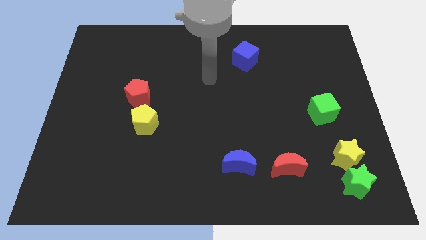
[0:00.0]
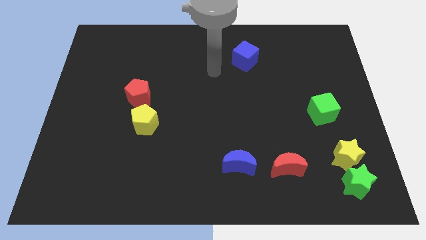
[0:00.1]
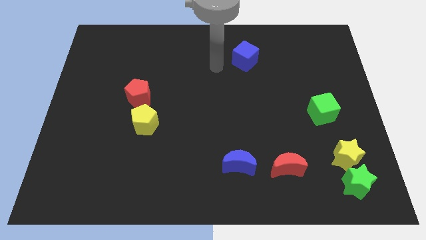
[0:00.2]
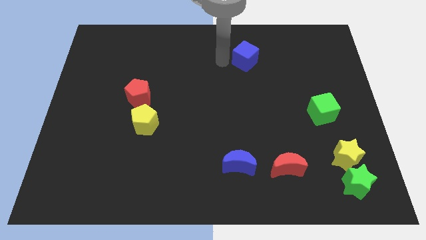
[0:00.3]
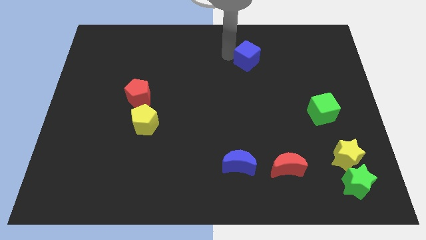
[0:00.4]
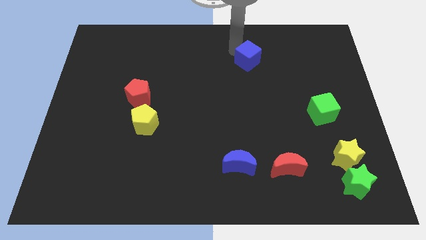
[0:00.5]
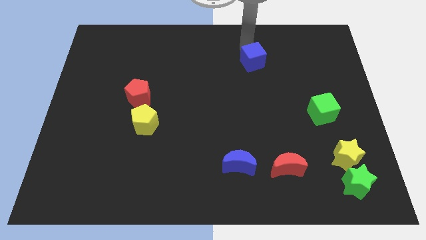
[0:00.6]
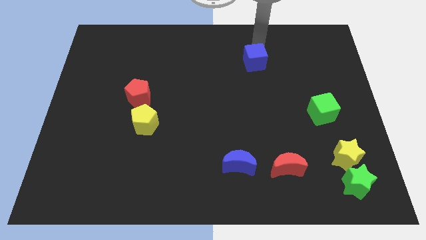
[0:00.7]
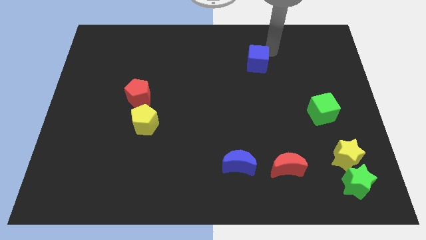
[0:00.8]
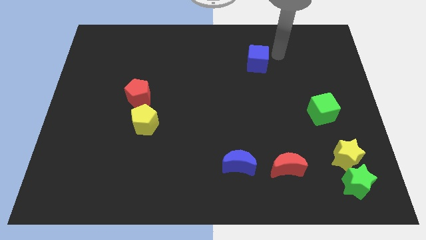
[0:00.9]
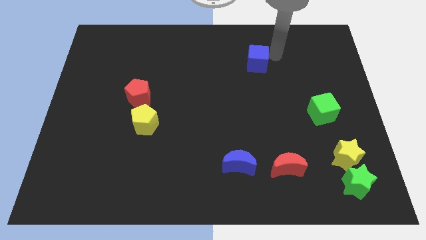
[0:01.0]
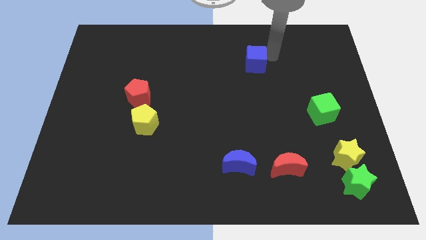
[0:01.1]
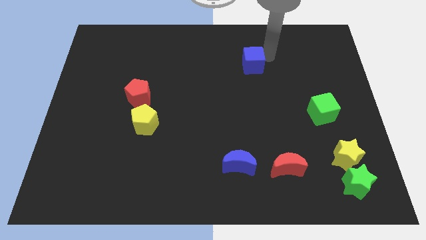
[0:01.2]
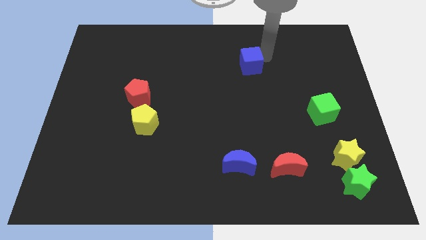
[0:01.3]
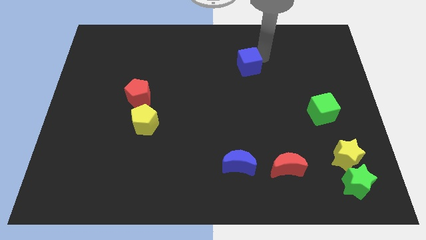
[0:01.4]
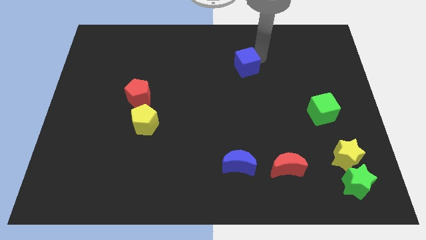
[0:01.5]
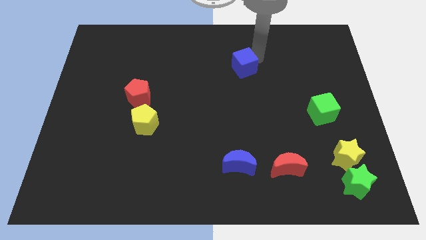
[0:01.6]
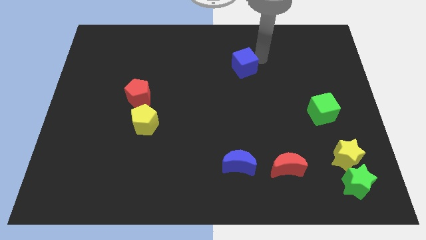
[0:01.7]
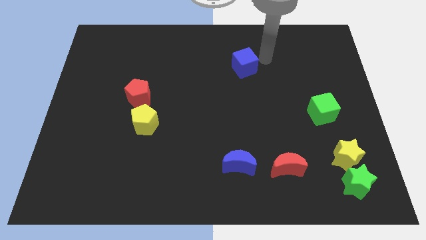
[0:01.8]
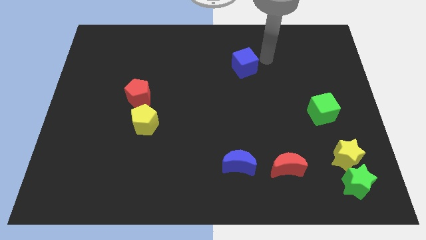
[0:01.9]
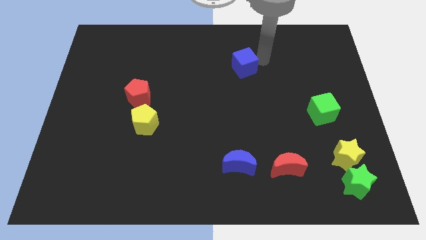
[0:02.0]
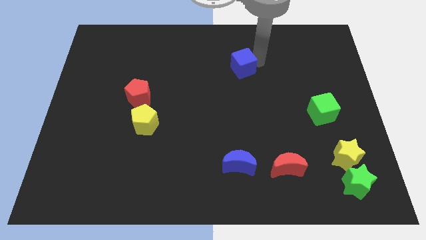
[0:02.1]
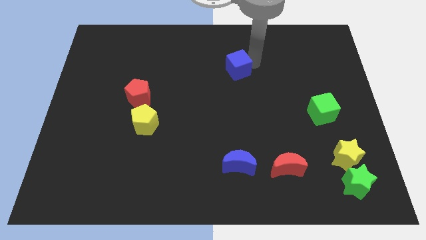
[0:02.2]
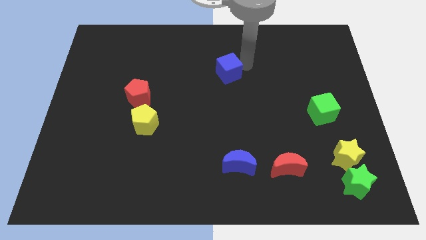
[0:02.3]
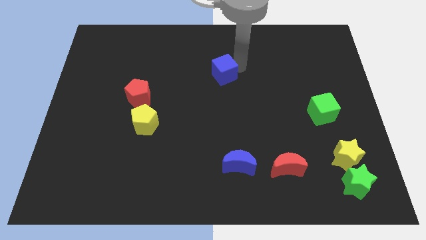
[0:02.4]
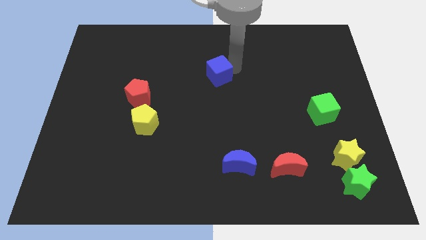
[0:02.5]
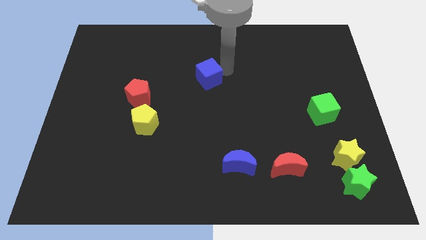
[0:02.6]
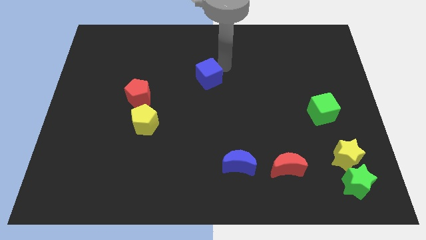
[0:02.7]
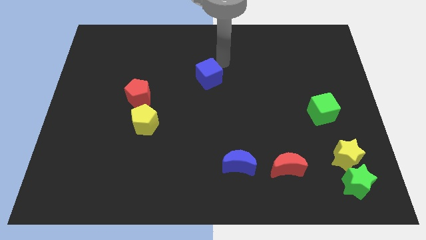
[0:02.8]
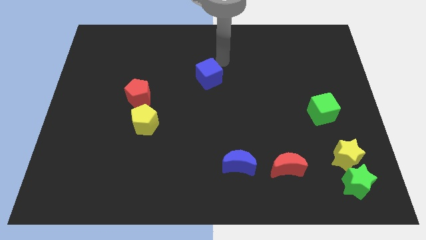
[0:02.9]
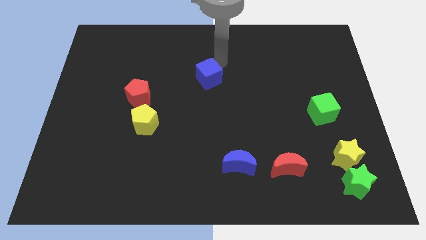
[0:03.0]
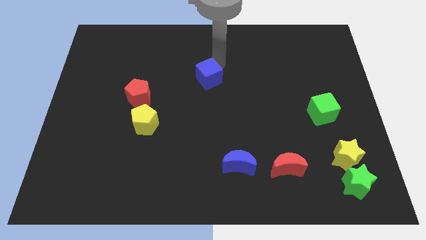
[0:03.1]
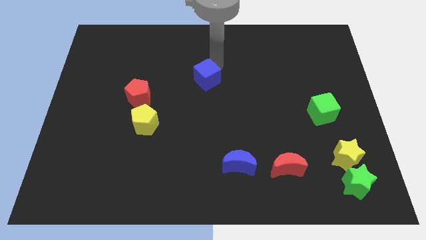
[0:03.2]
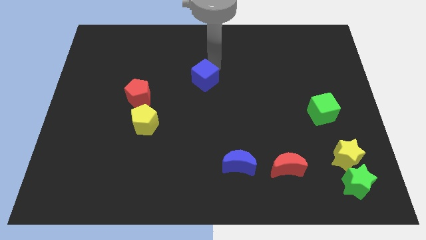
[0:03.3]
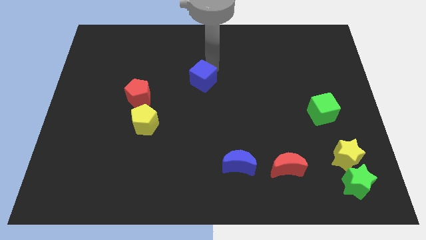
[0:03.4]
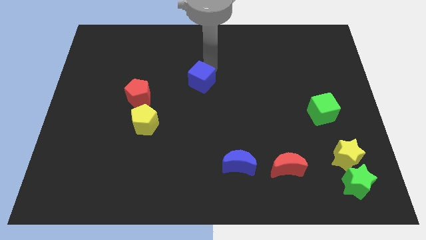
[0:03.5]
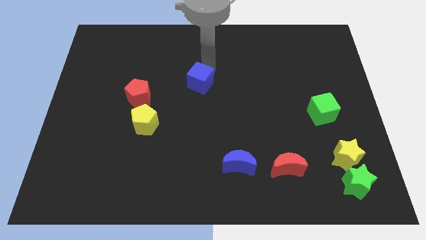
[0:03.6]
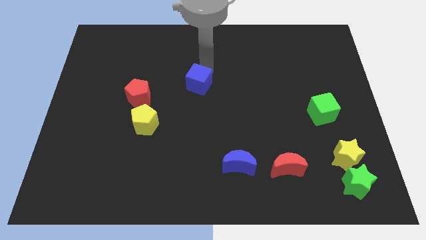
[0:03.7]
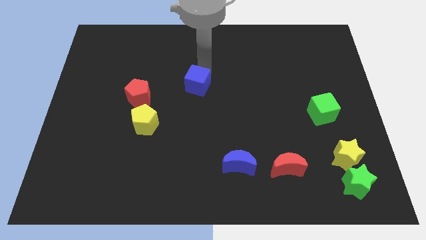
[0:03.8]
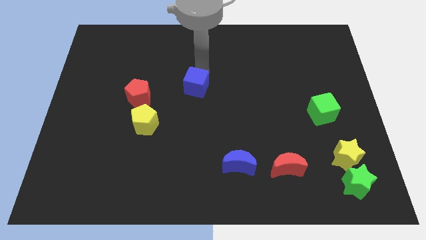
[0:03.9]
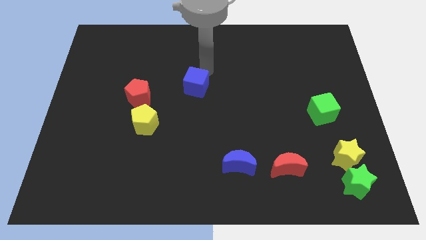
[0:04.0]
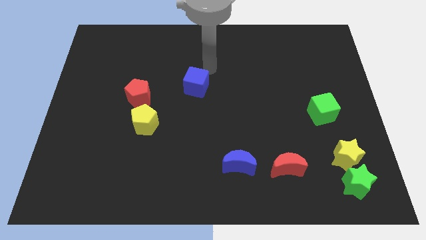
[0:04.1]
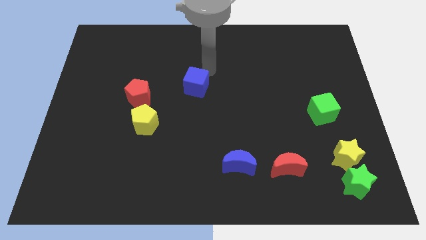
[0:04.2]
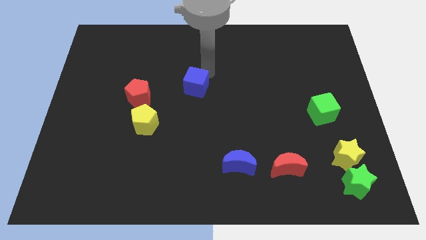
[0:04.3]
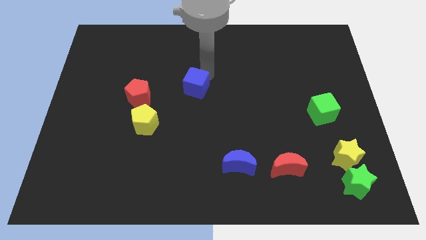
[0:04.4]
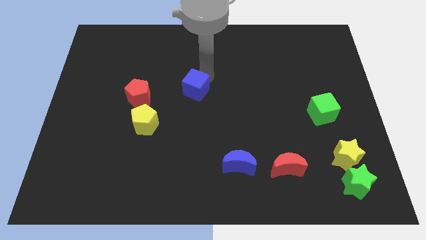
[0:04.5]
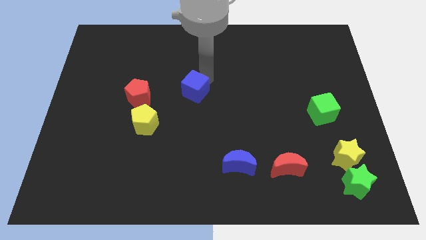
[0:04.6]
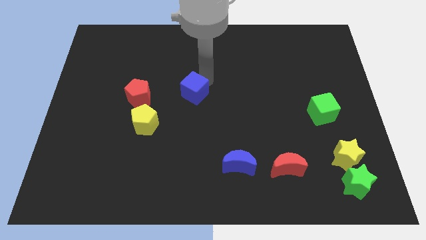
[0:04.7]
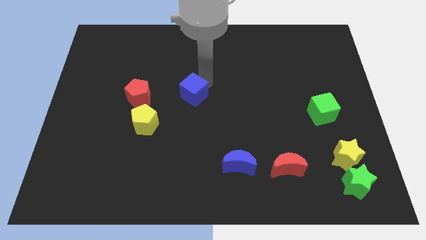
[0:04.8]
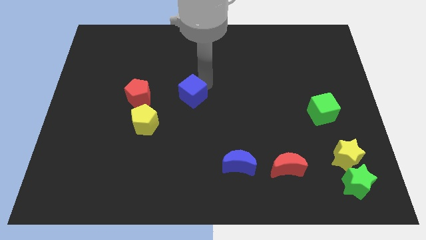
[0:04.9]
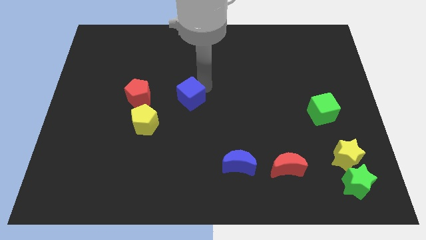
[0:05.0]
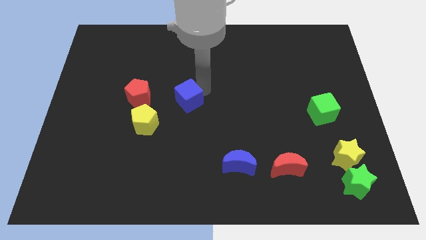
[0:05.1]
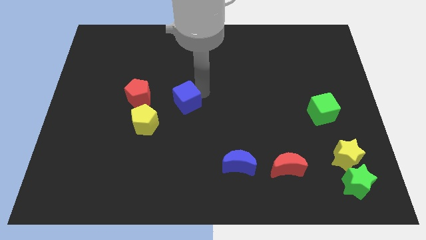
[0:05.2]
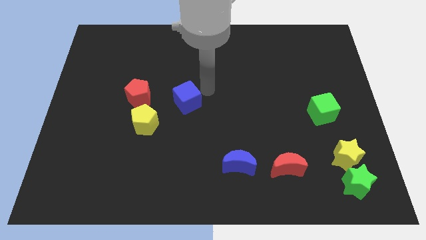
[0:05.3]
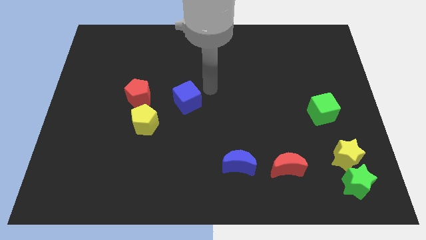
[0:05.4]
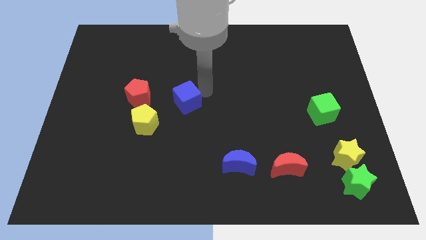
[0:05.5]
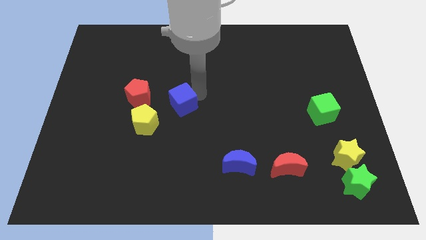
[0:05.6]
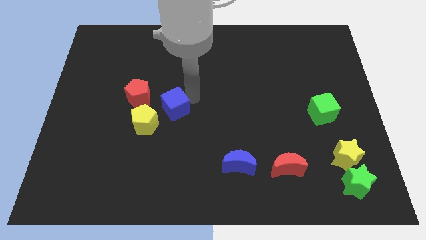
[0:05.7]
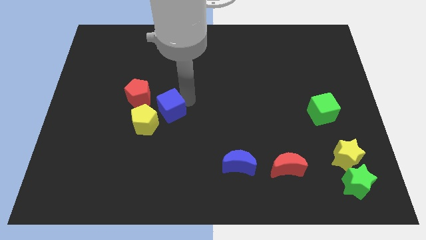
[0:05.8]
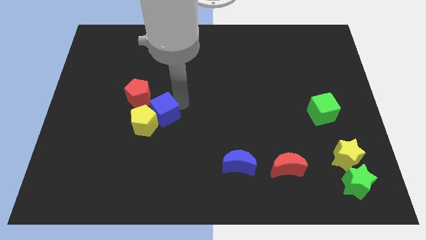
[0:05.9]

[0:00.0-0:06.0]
put the blue cube towards the yellow pentagon

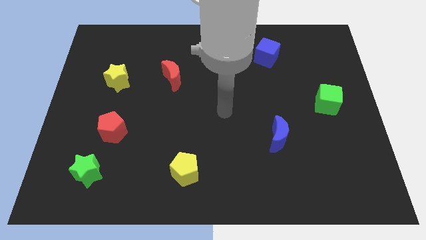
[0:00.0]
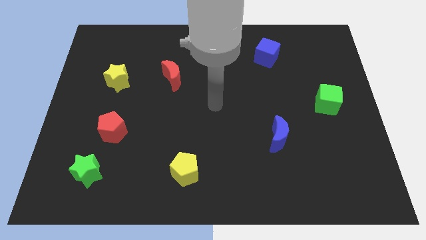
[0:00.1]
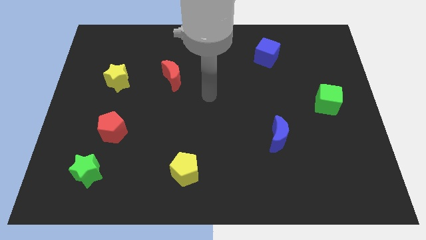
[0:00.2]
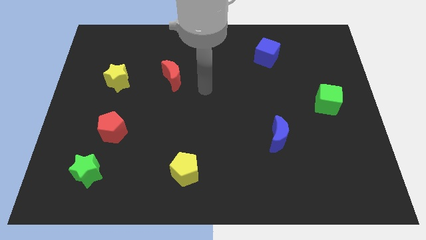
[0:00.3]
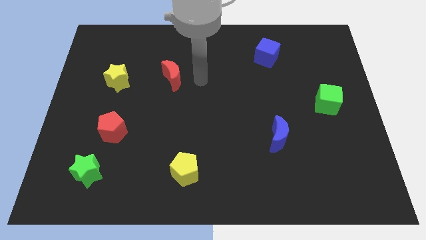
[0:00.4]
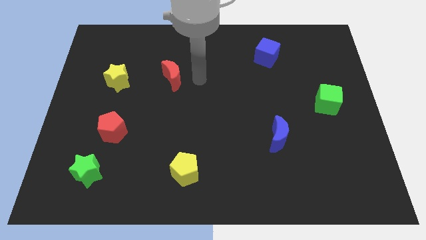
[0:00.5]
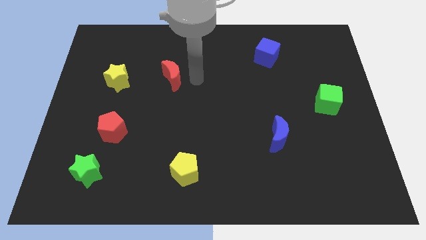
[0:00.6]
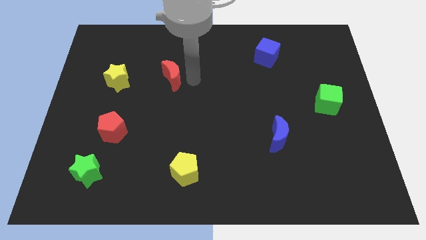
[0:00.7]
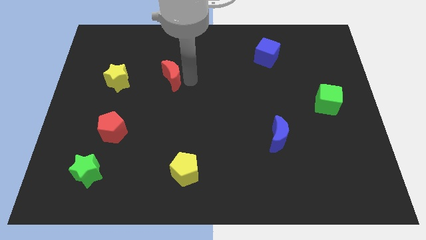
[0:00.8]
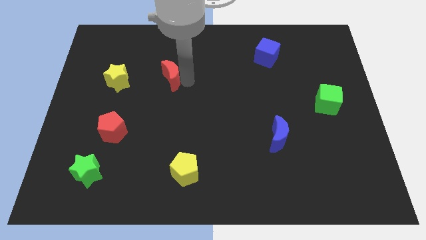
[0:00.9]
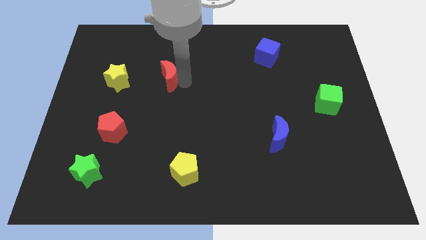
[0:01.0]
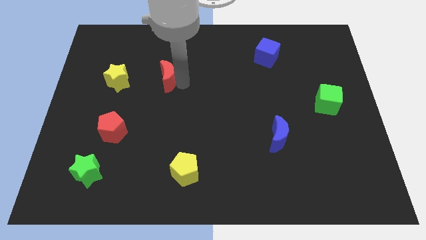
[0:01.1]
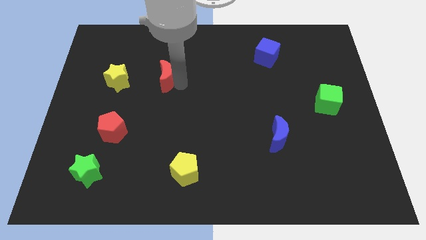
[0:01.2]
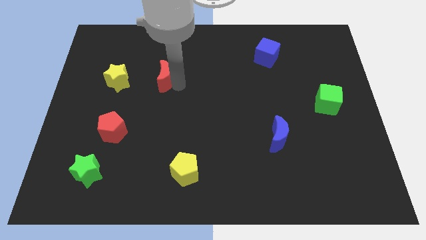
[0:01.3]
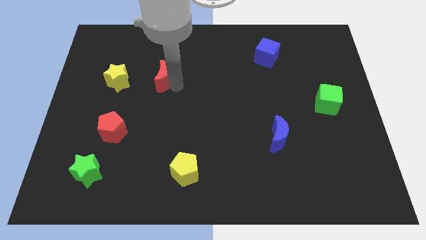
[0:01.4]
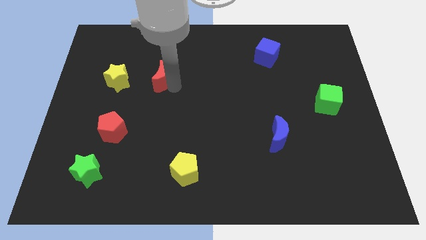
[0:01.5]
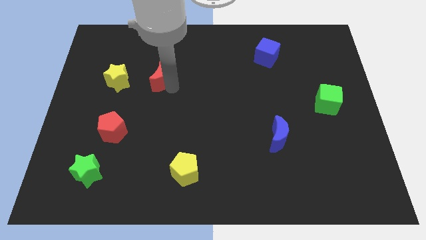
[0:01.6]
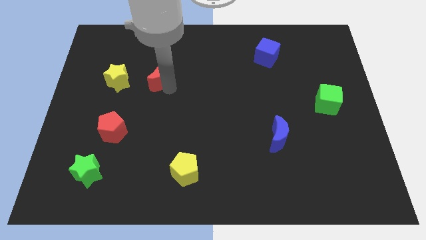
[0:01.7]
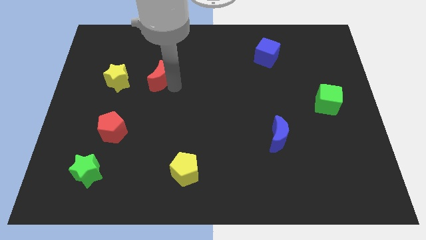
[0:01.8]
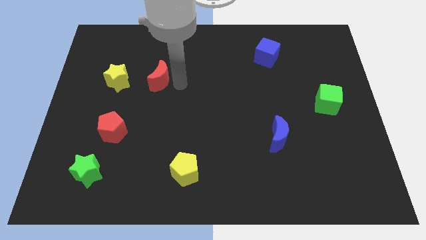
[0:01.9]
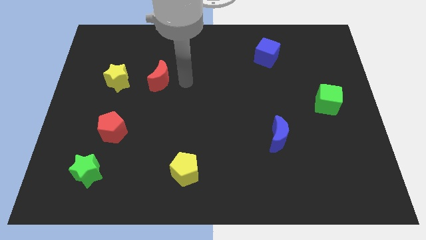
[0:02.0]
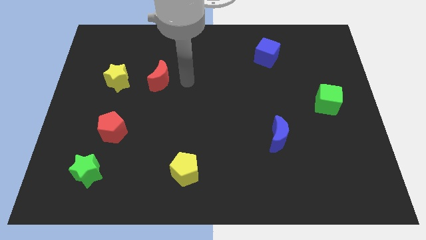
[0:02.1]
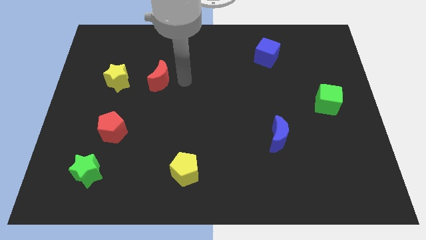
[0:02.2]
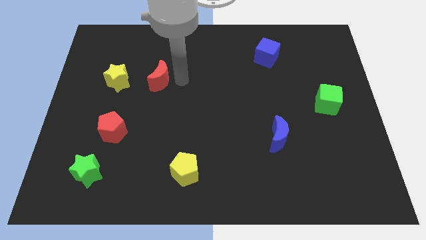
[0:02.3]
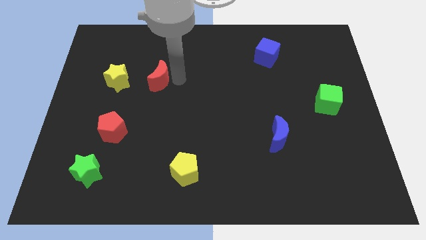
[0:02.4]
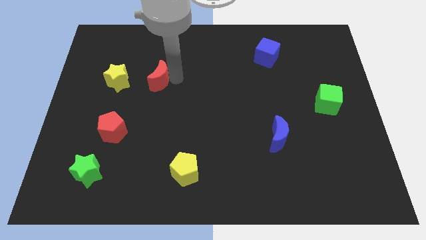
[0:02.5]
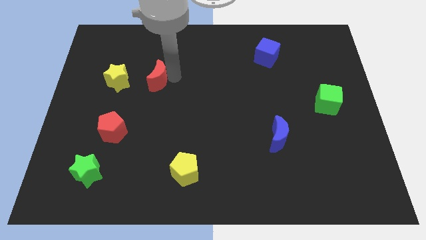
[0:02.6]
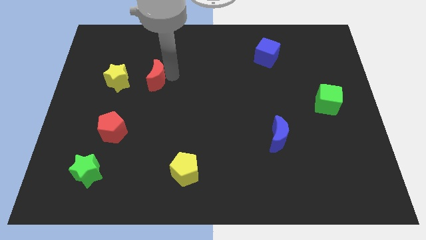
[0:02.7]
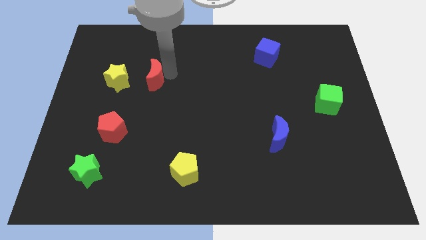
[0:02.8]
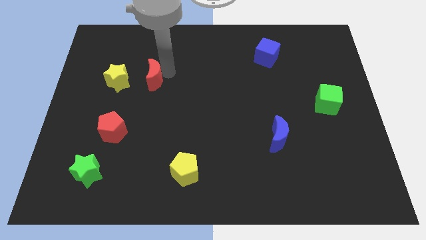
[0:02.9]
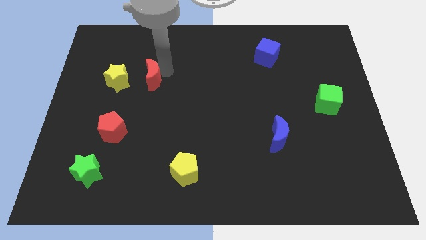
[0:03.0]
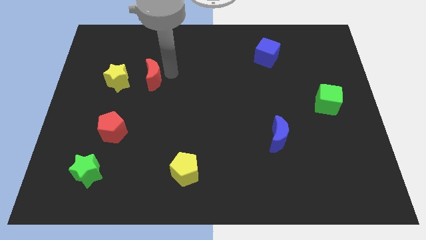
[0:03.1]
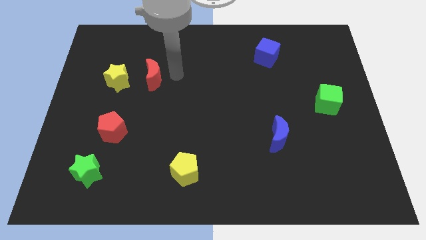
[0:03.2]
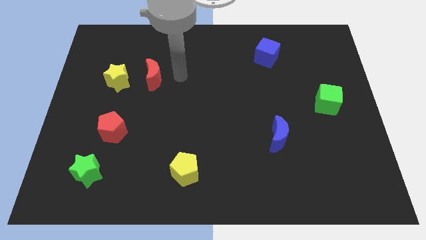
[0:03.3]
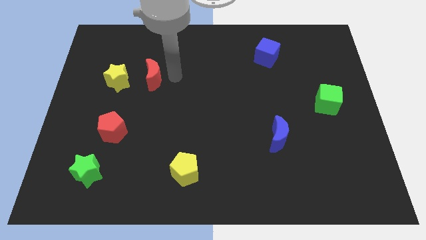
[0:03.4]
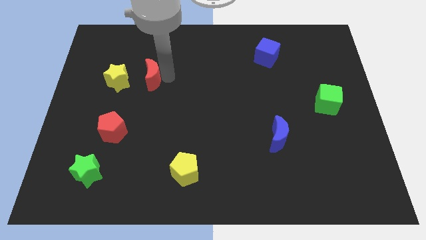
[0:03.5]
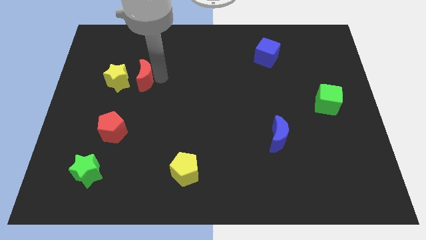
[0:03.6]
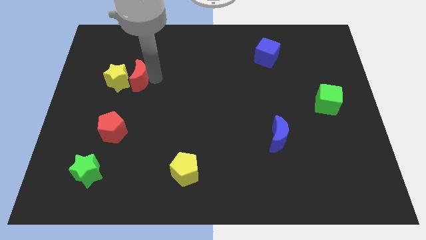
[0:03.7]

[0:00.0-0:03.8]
move the red moon towards the yellow star
